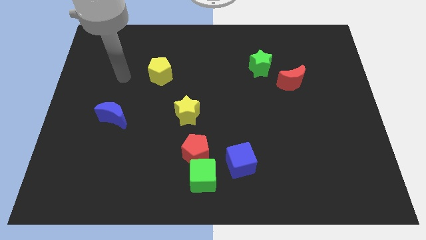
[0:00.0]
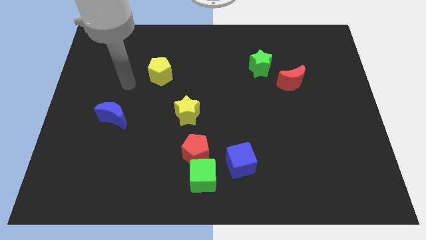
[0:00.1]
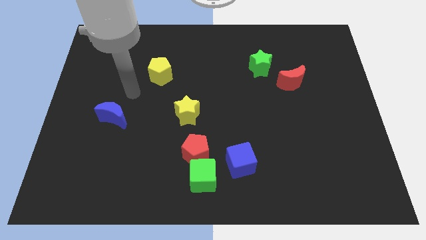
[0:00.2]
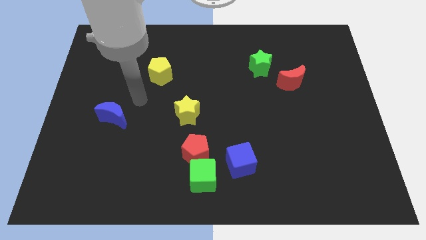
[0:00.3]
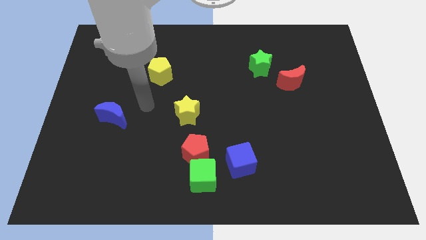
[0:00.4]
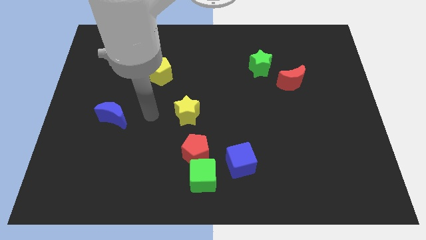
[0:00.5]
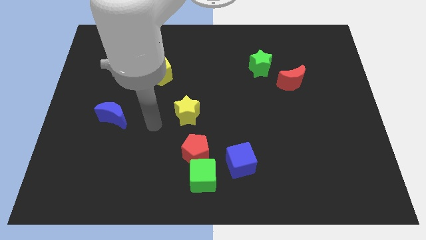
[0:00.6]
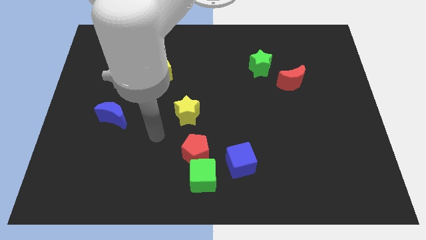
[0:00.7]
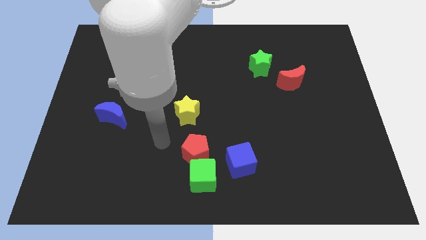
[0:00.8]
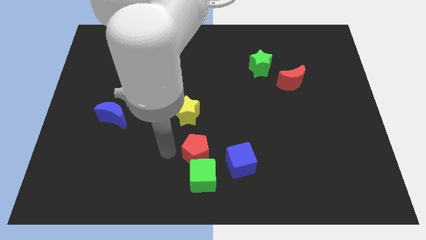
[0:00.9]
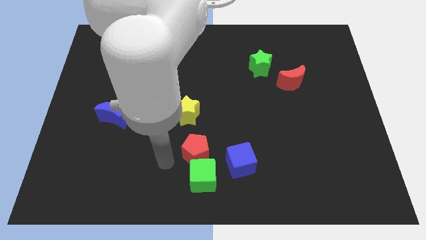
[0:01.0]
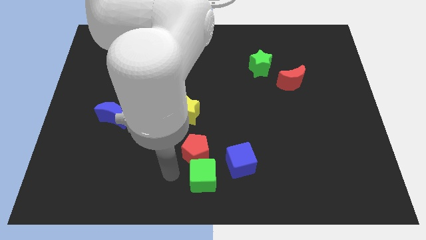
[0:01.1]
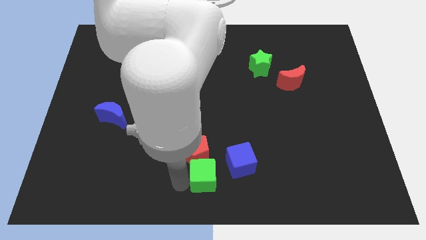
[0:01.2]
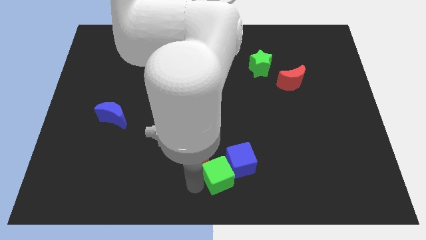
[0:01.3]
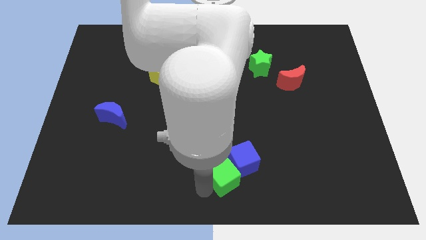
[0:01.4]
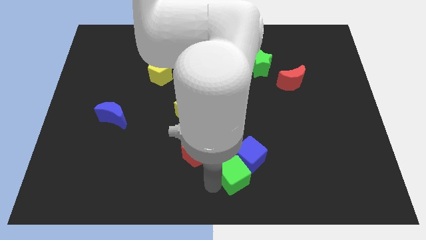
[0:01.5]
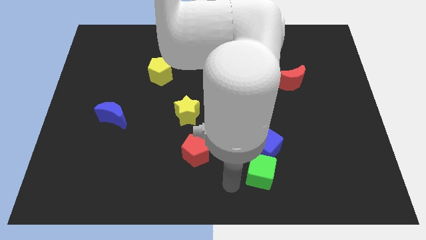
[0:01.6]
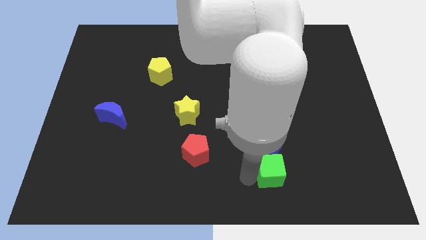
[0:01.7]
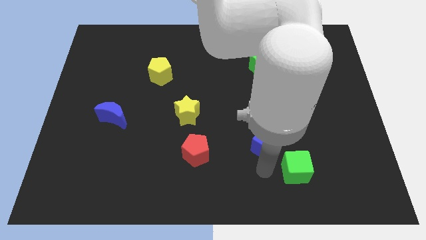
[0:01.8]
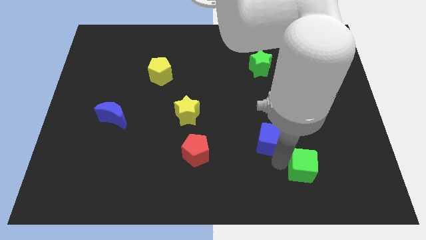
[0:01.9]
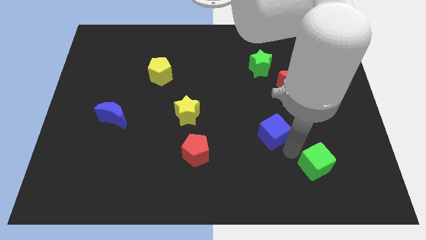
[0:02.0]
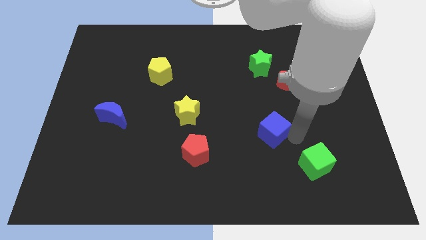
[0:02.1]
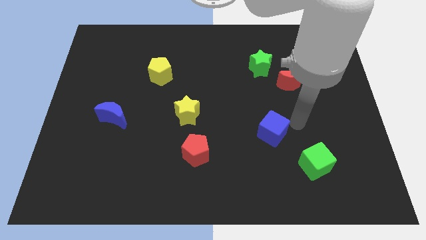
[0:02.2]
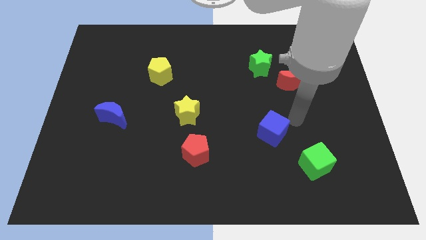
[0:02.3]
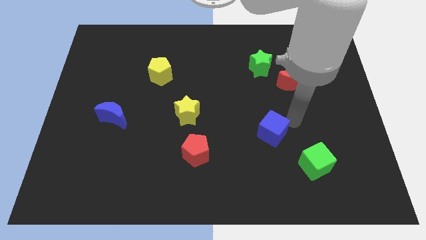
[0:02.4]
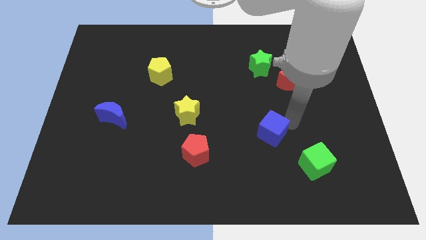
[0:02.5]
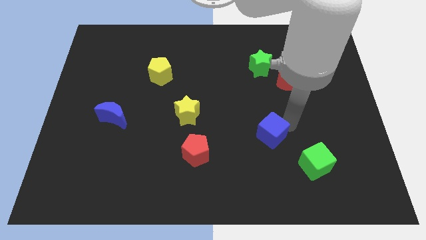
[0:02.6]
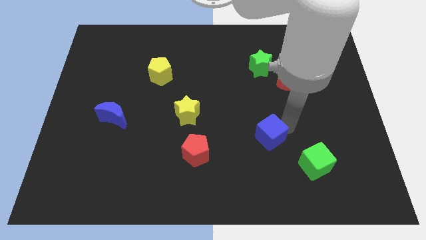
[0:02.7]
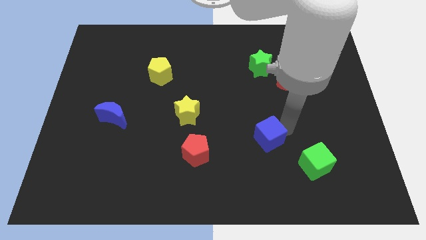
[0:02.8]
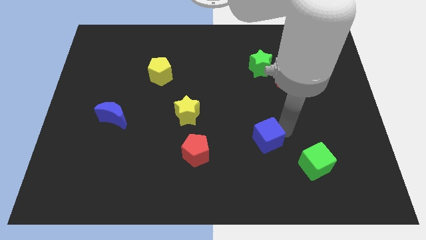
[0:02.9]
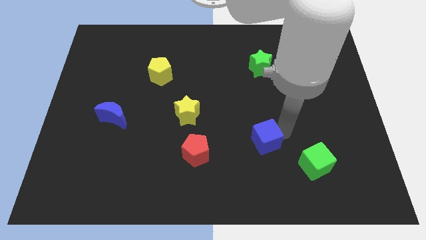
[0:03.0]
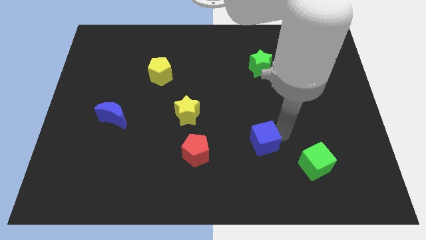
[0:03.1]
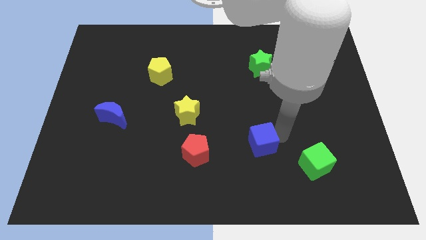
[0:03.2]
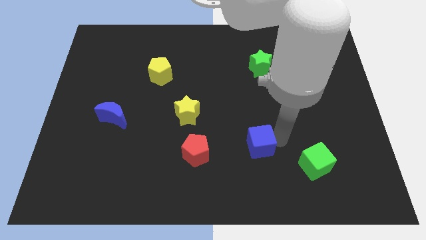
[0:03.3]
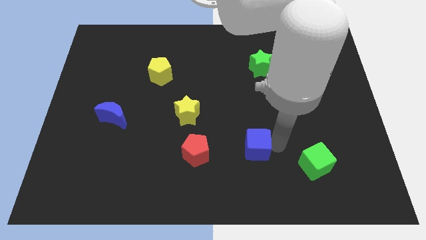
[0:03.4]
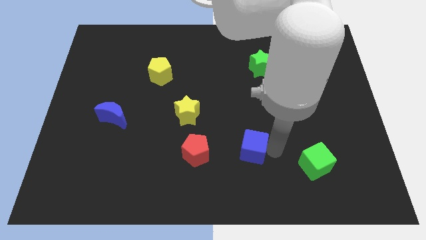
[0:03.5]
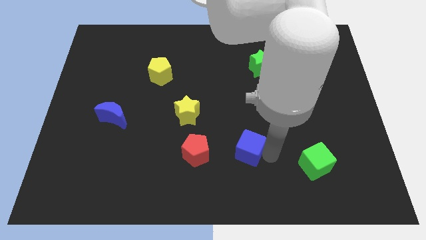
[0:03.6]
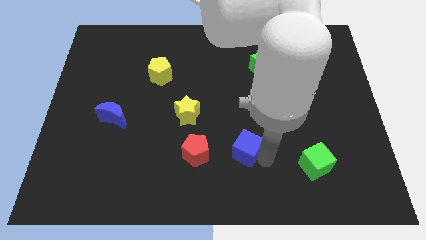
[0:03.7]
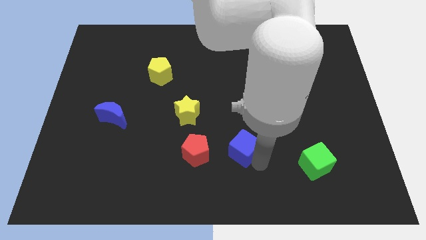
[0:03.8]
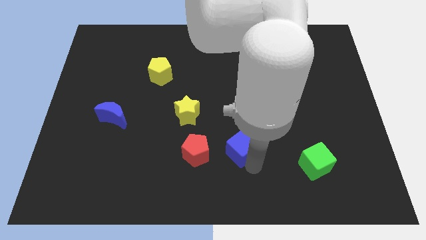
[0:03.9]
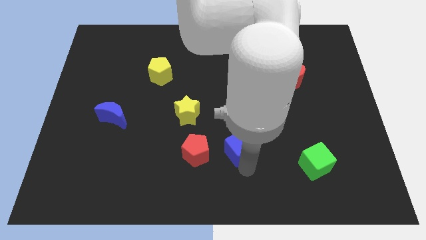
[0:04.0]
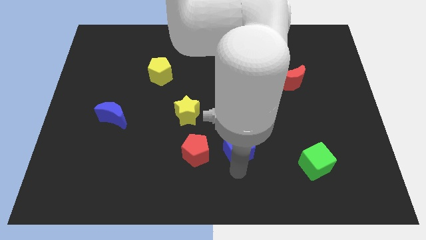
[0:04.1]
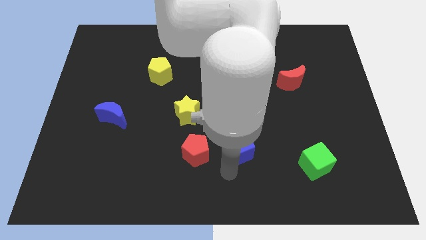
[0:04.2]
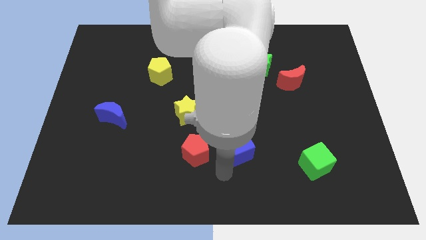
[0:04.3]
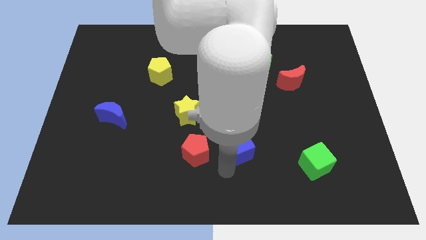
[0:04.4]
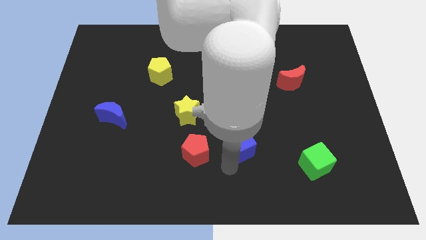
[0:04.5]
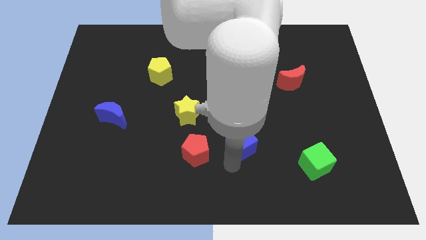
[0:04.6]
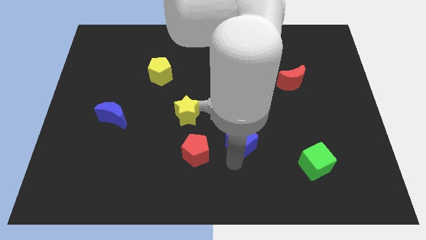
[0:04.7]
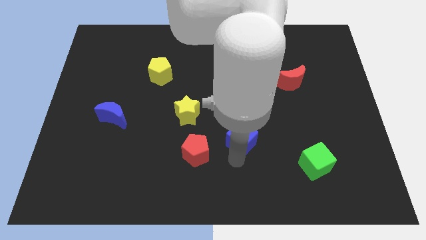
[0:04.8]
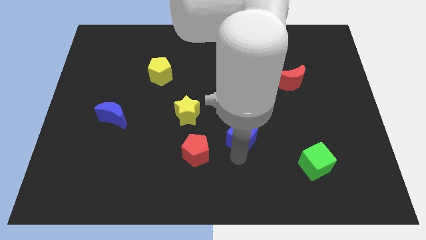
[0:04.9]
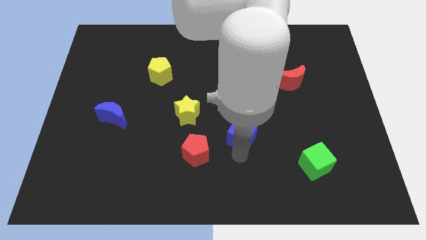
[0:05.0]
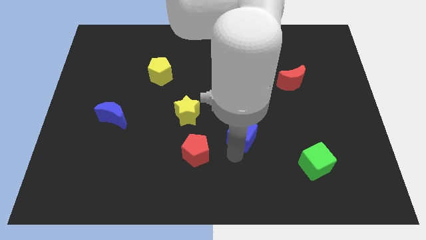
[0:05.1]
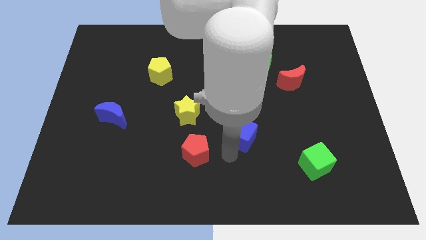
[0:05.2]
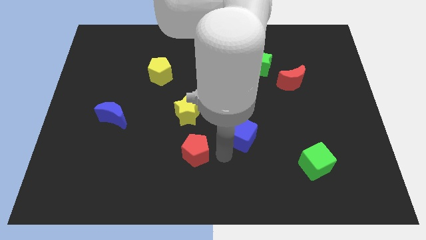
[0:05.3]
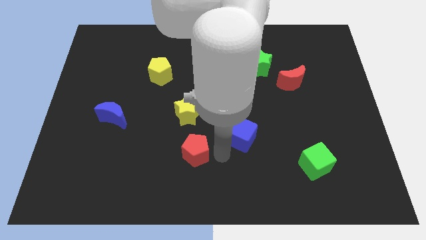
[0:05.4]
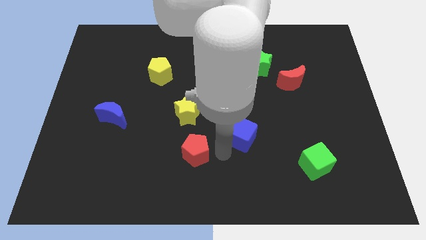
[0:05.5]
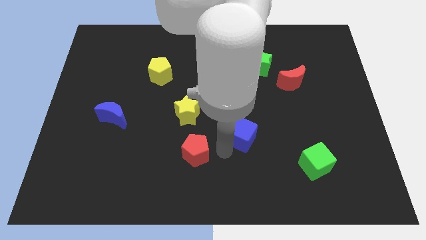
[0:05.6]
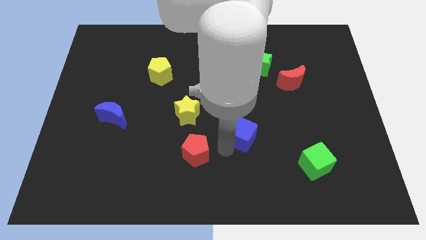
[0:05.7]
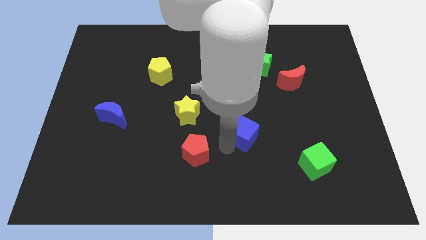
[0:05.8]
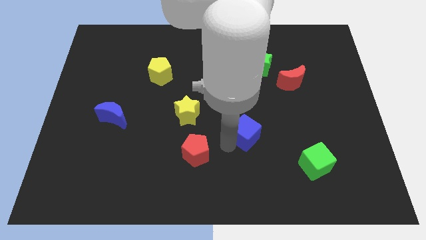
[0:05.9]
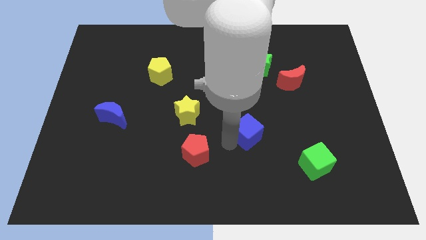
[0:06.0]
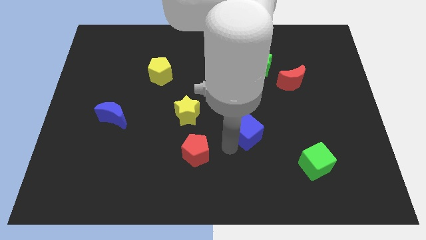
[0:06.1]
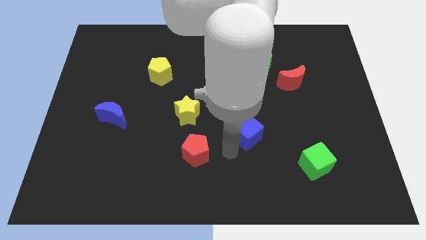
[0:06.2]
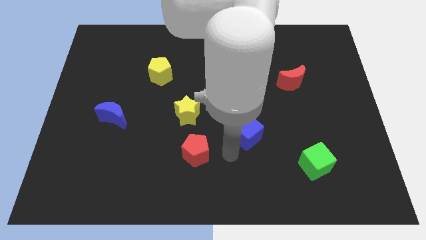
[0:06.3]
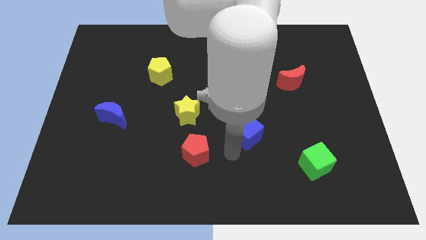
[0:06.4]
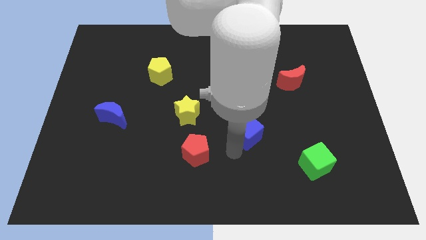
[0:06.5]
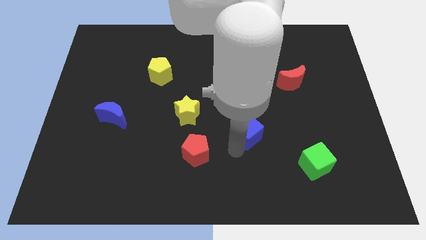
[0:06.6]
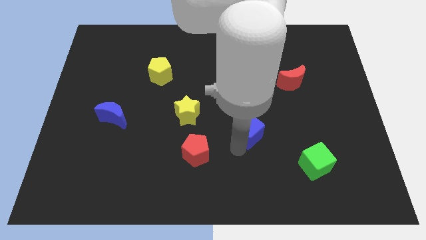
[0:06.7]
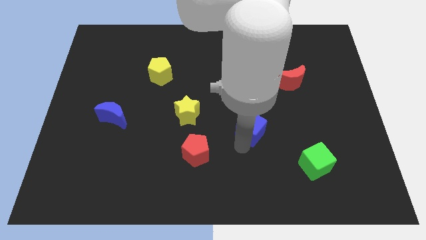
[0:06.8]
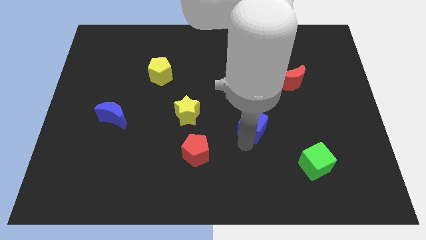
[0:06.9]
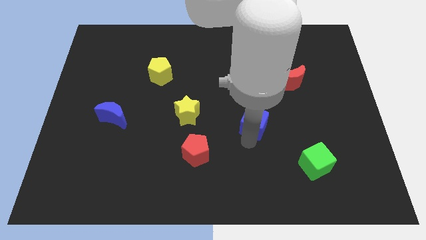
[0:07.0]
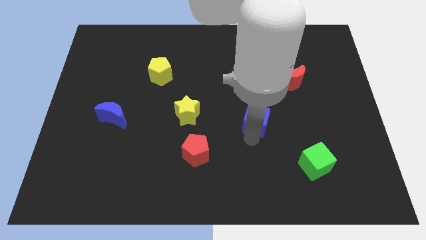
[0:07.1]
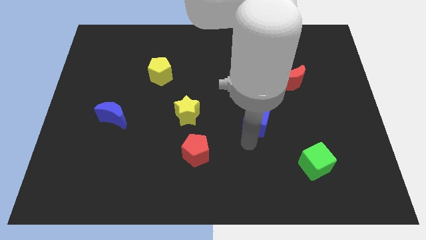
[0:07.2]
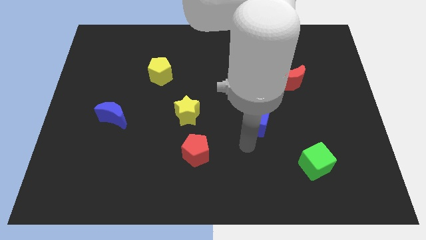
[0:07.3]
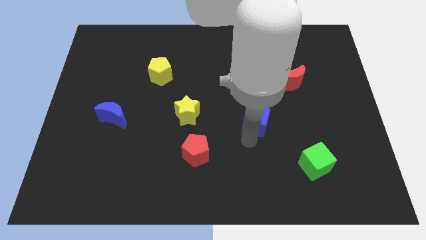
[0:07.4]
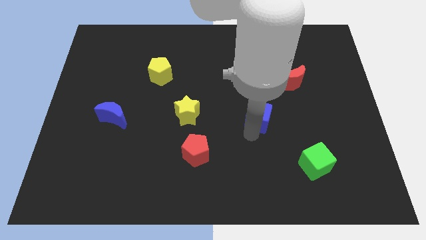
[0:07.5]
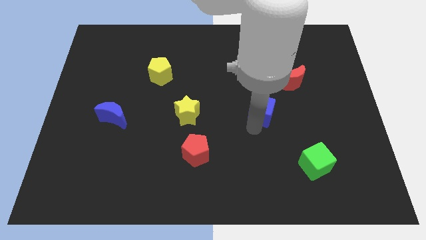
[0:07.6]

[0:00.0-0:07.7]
push the blue cube to the bottom side of the green star
